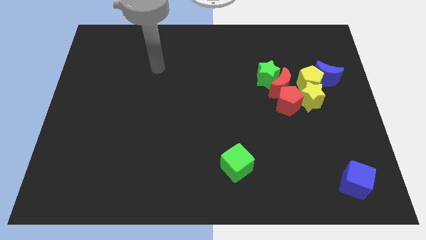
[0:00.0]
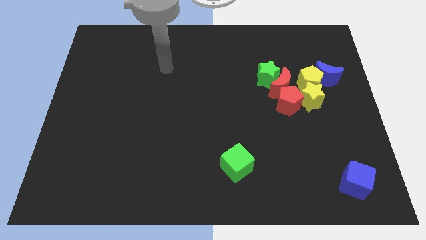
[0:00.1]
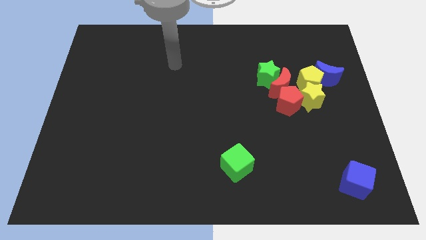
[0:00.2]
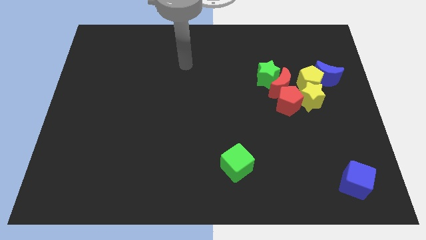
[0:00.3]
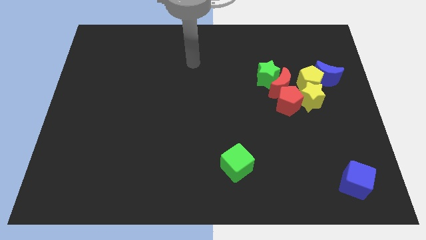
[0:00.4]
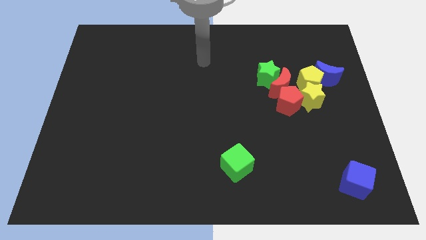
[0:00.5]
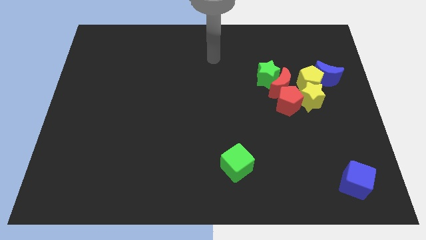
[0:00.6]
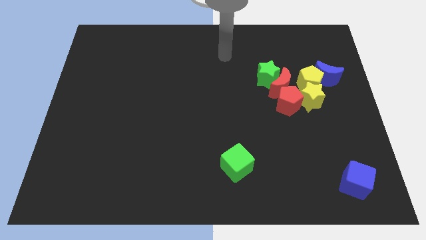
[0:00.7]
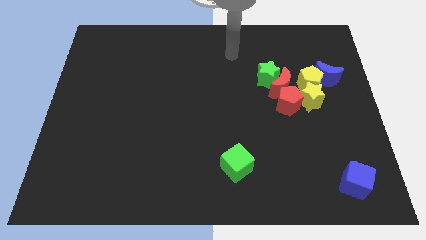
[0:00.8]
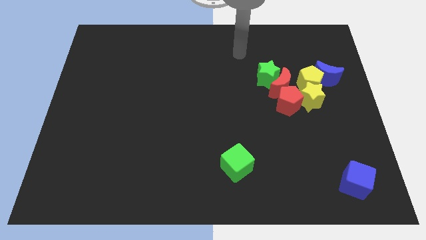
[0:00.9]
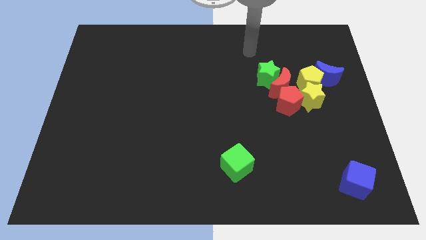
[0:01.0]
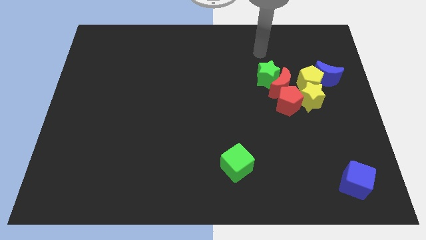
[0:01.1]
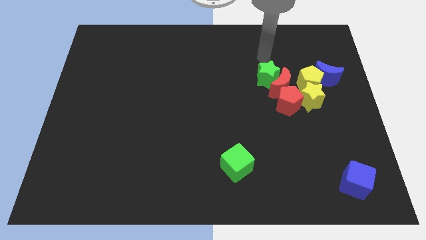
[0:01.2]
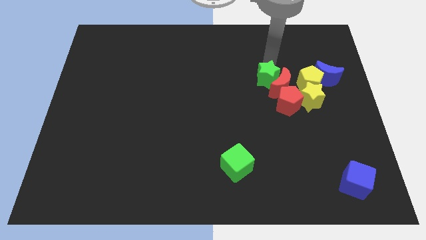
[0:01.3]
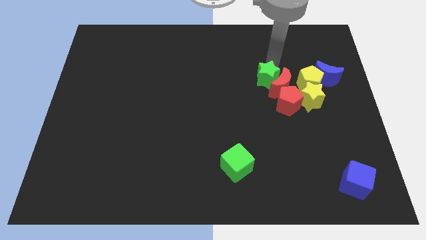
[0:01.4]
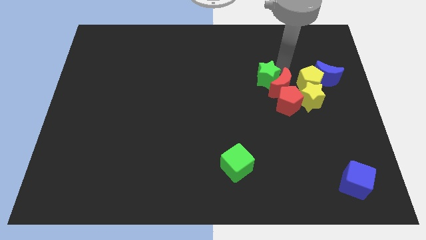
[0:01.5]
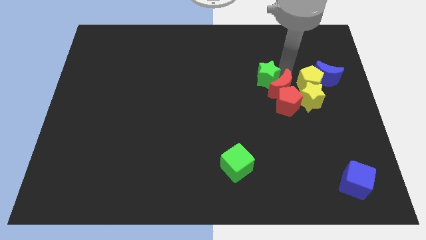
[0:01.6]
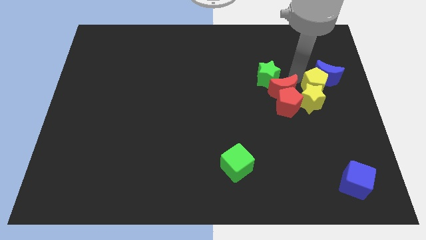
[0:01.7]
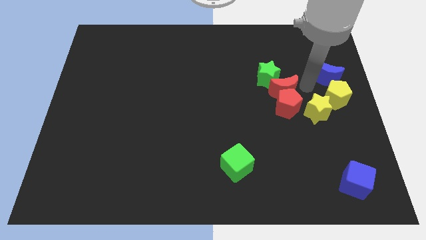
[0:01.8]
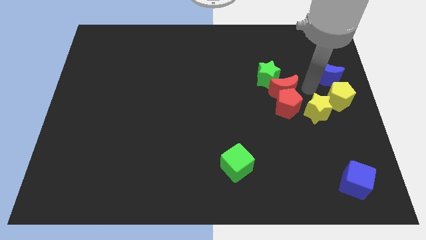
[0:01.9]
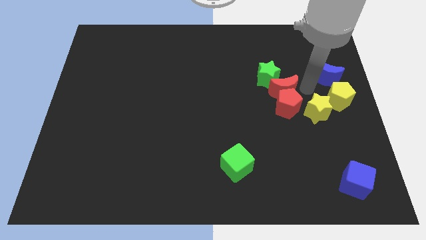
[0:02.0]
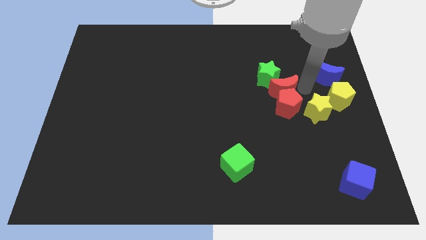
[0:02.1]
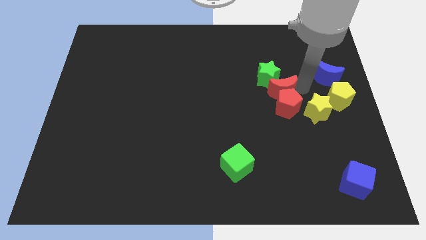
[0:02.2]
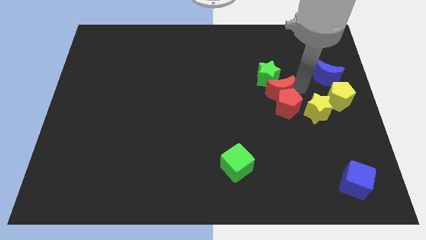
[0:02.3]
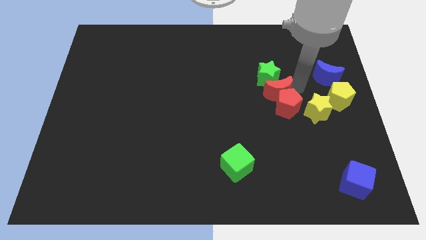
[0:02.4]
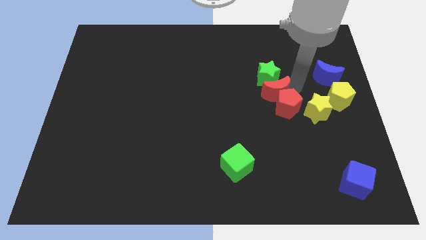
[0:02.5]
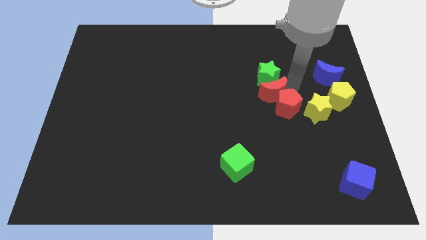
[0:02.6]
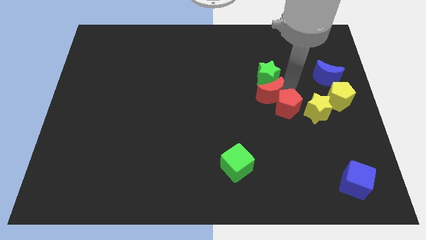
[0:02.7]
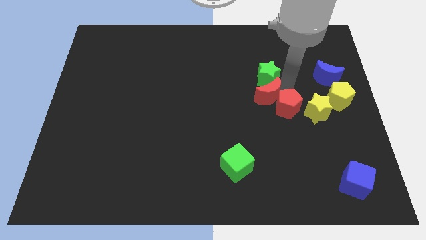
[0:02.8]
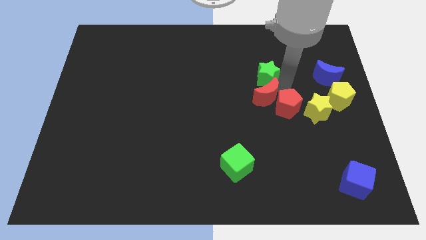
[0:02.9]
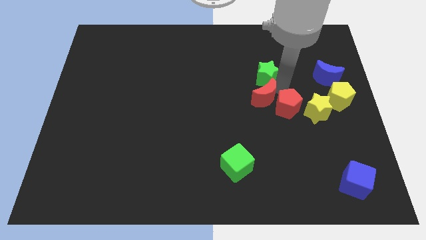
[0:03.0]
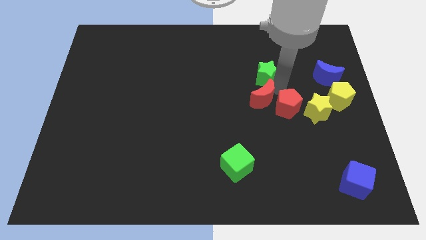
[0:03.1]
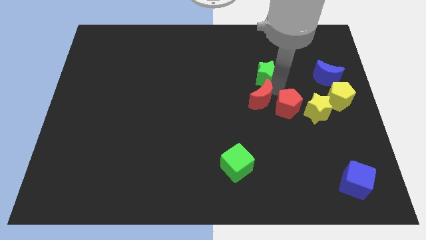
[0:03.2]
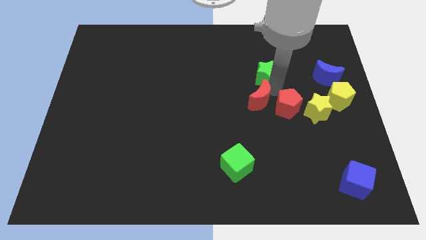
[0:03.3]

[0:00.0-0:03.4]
move the red moon away from the group

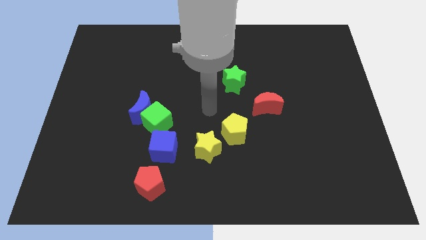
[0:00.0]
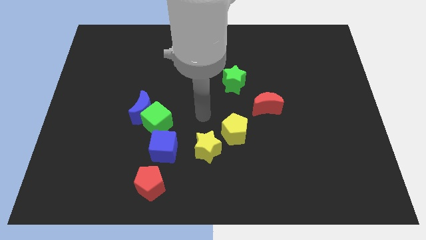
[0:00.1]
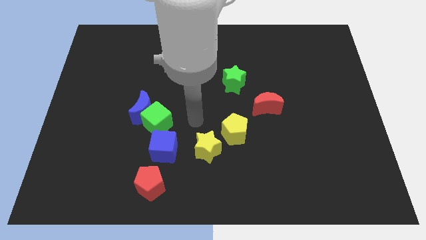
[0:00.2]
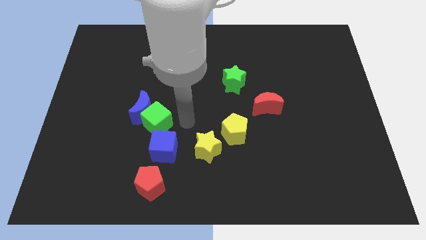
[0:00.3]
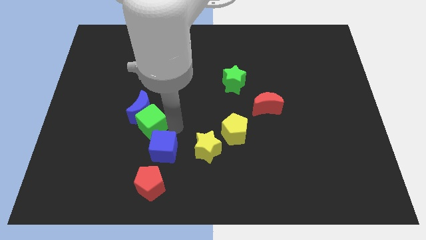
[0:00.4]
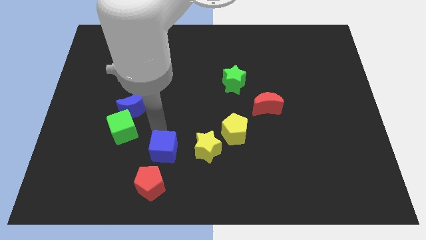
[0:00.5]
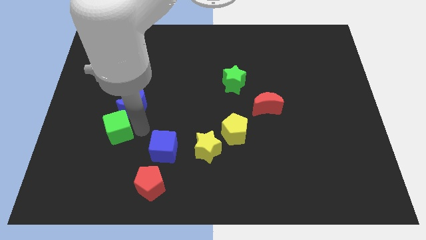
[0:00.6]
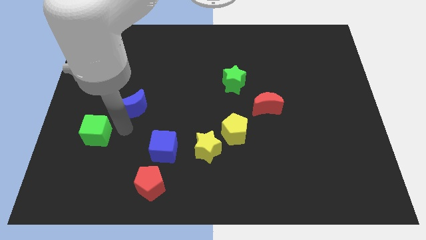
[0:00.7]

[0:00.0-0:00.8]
separate the blue moon from the green cube

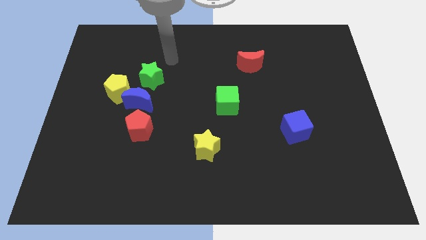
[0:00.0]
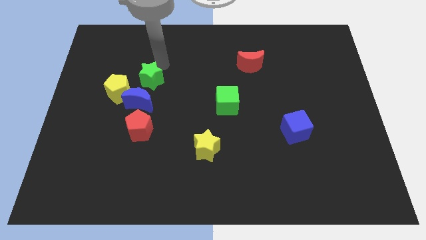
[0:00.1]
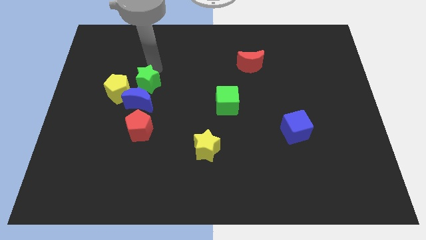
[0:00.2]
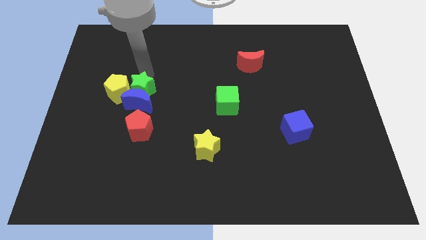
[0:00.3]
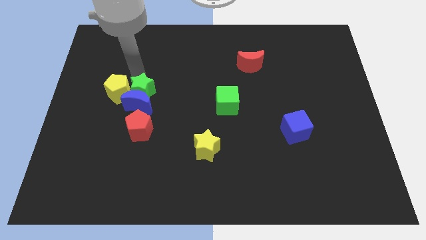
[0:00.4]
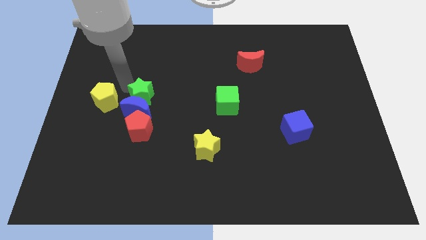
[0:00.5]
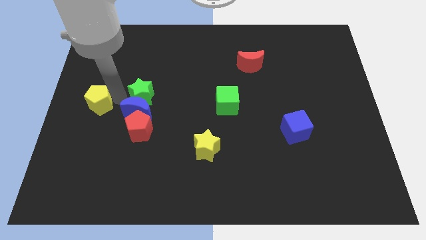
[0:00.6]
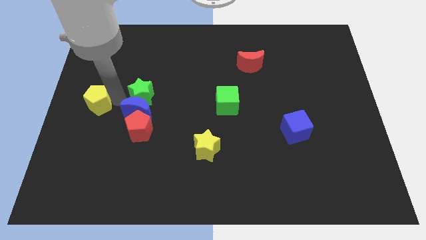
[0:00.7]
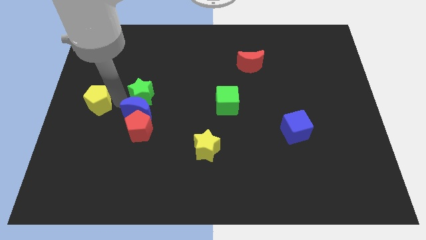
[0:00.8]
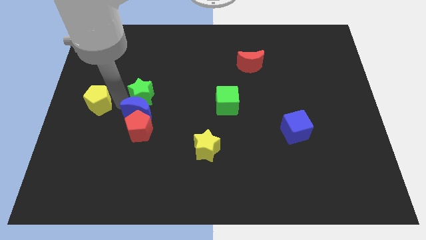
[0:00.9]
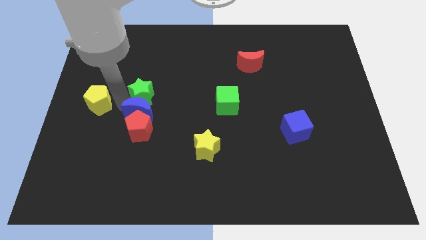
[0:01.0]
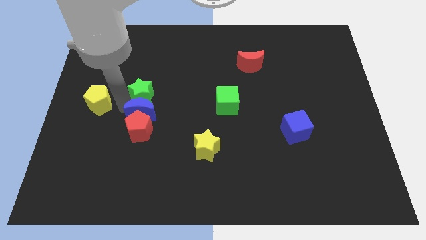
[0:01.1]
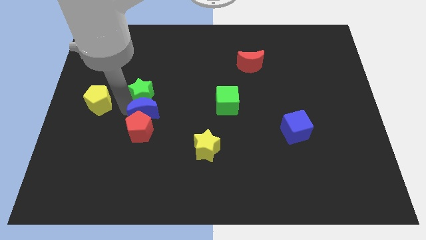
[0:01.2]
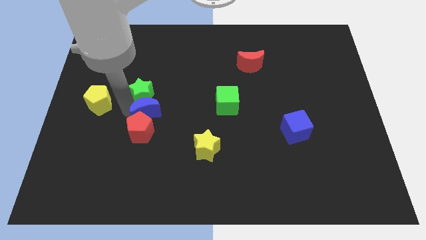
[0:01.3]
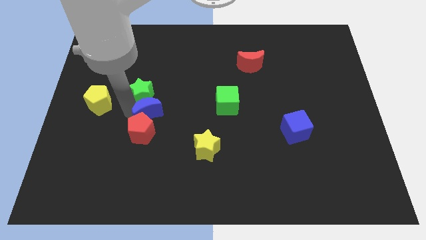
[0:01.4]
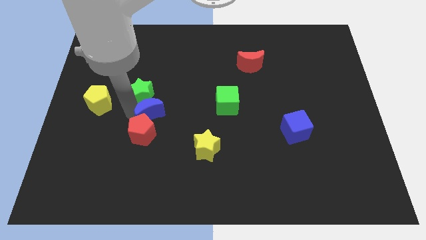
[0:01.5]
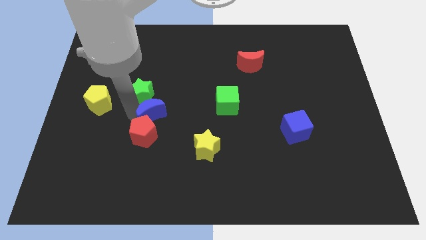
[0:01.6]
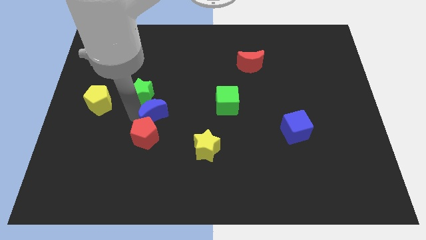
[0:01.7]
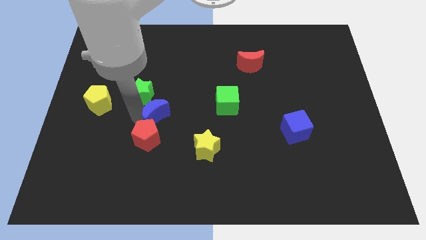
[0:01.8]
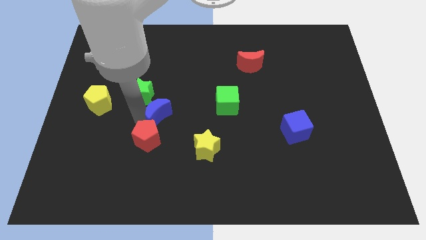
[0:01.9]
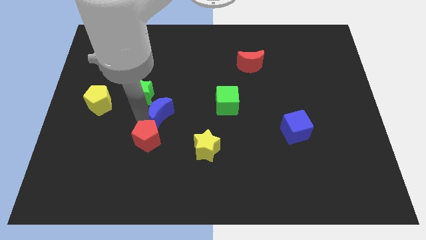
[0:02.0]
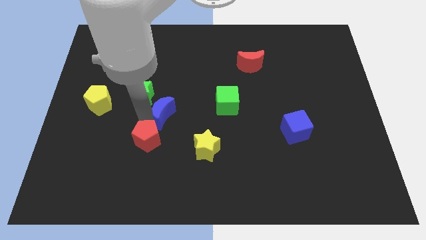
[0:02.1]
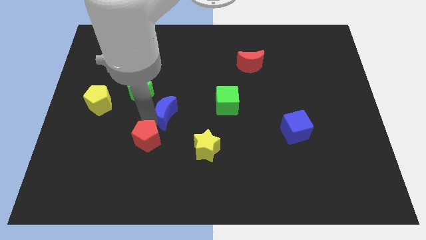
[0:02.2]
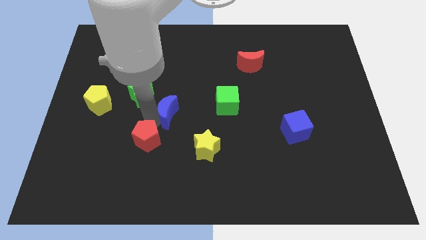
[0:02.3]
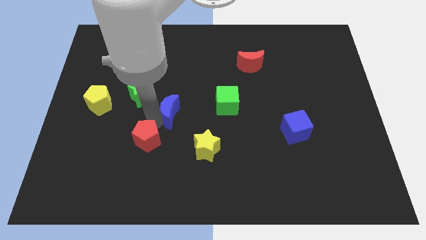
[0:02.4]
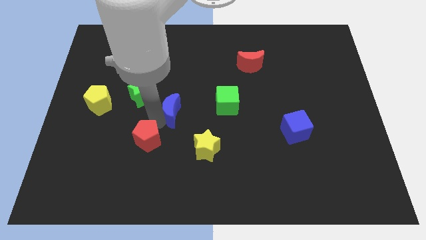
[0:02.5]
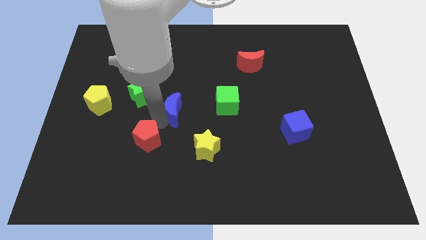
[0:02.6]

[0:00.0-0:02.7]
move the blue moon away from the group of blocks

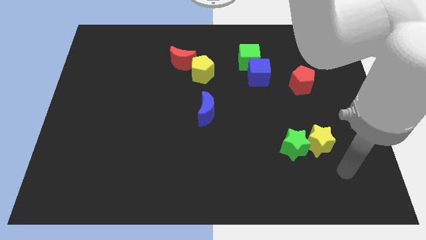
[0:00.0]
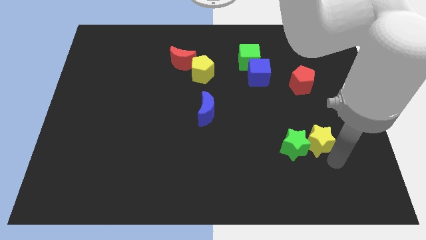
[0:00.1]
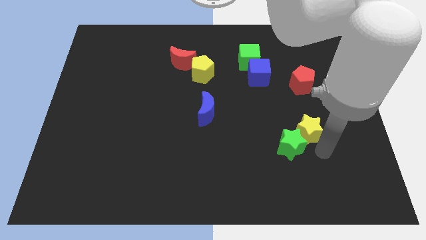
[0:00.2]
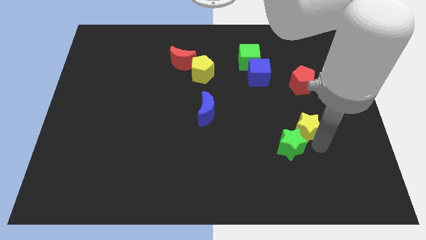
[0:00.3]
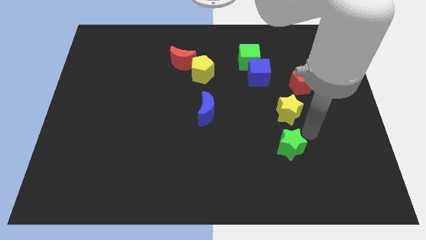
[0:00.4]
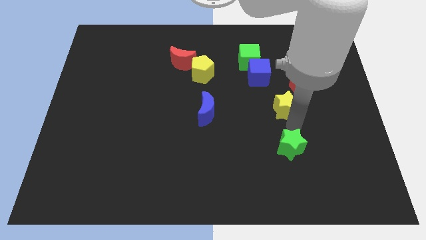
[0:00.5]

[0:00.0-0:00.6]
separate the green star from the yellow star

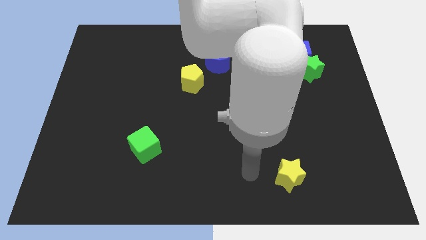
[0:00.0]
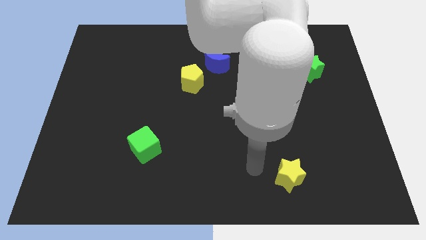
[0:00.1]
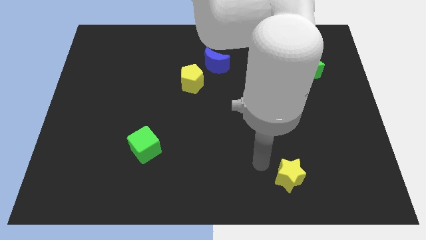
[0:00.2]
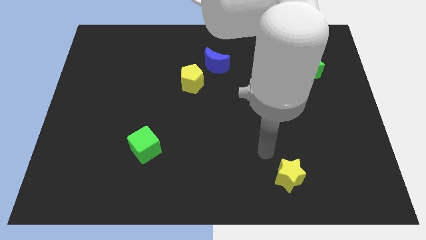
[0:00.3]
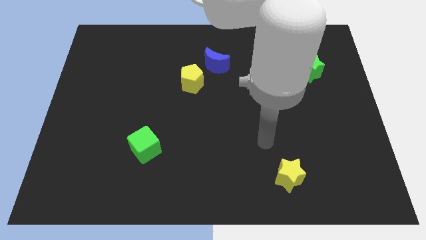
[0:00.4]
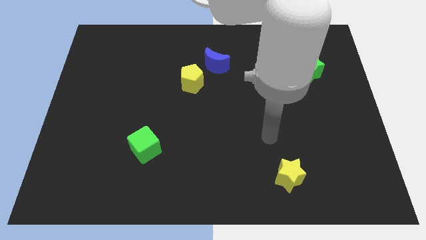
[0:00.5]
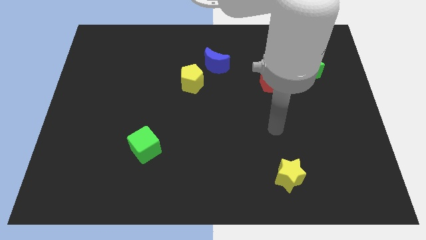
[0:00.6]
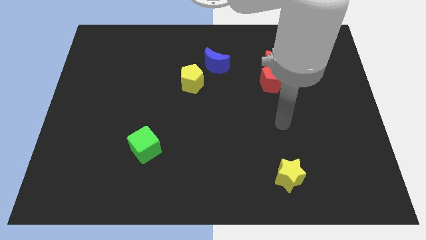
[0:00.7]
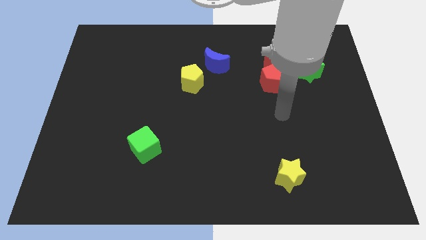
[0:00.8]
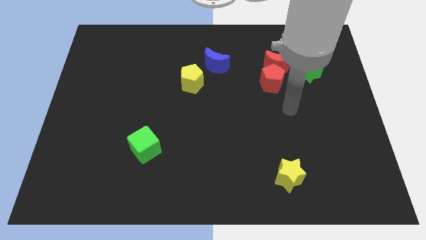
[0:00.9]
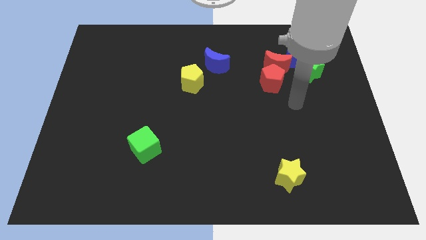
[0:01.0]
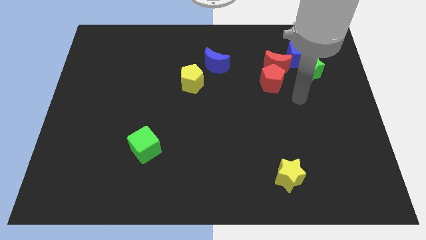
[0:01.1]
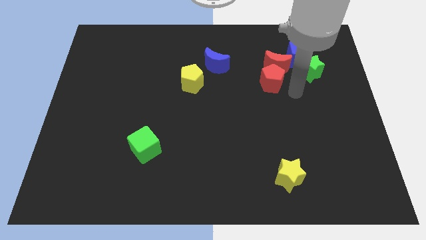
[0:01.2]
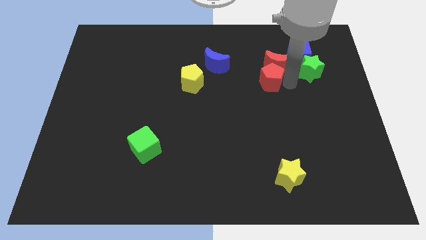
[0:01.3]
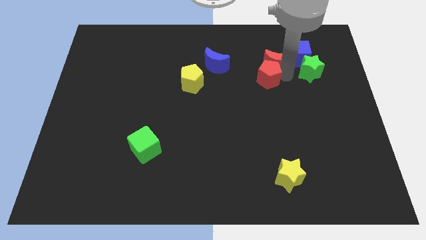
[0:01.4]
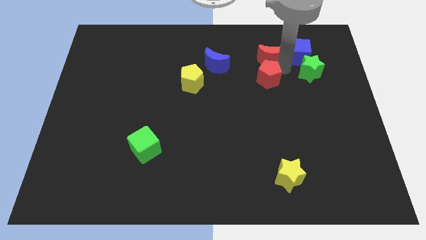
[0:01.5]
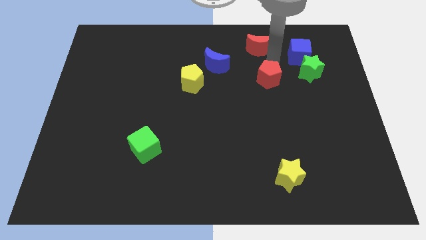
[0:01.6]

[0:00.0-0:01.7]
separate the red pentagon from the red moon

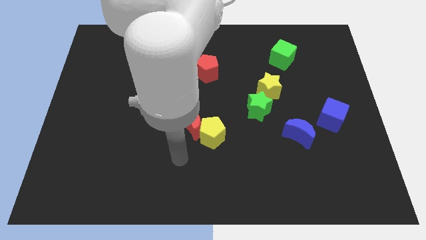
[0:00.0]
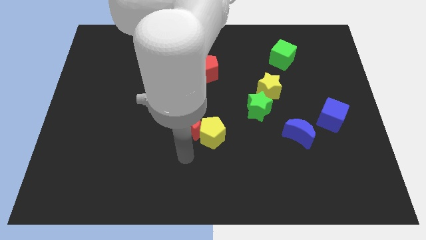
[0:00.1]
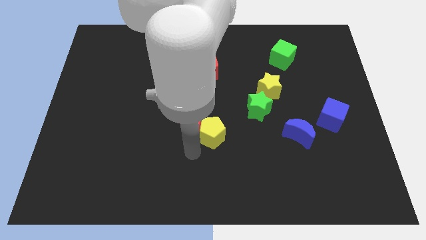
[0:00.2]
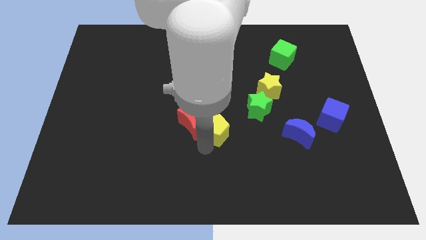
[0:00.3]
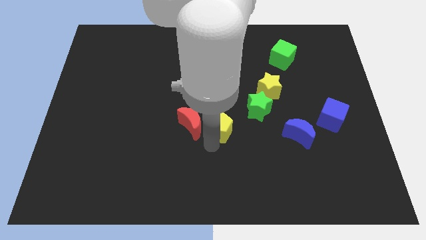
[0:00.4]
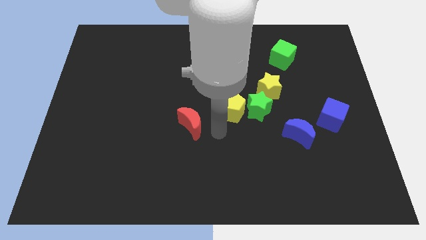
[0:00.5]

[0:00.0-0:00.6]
separate the red moon from the yellow pentagon
